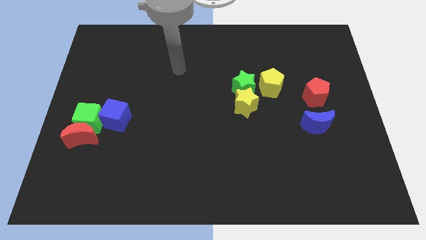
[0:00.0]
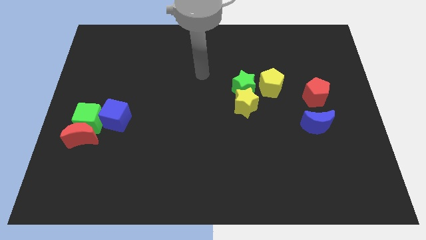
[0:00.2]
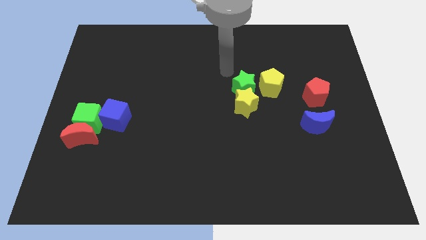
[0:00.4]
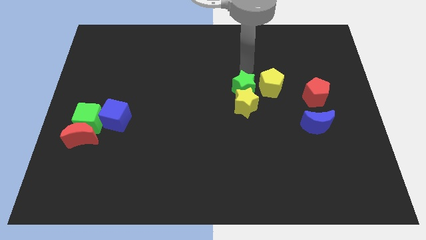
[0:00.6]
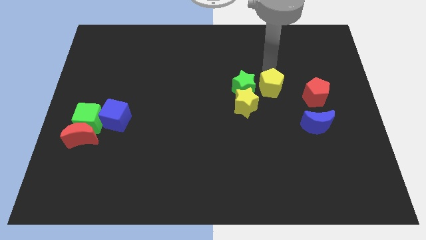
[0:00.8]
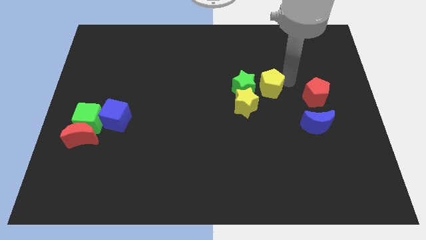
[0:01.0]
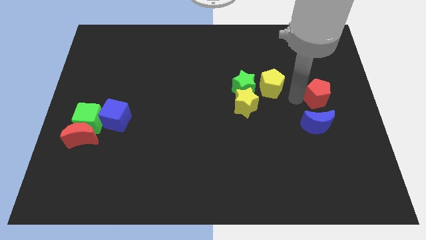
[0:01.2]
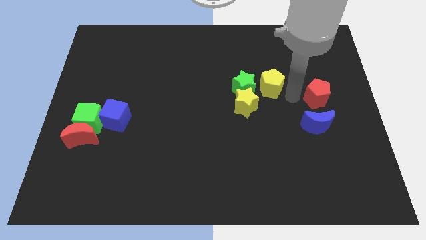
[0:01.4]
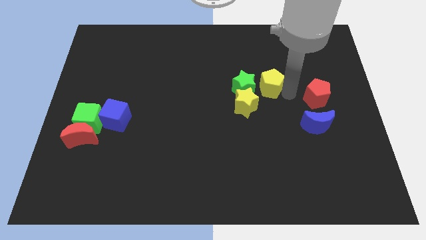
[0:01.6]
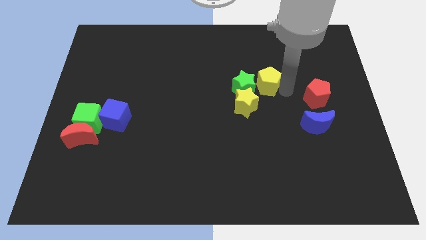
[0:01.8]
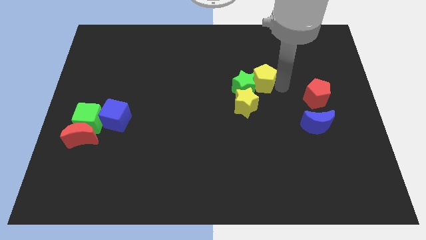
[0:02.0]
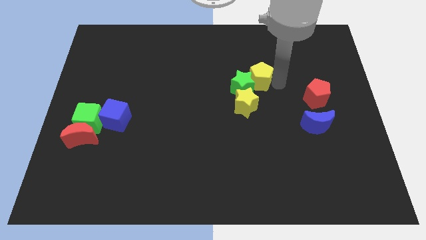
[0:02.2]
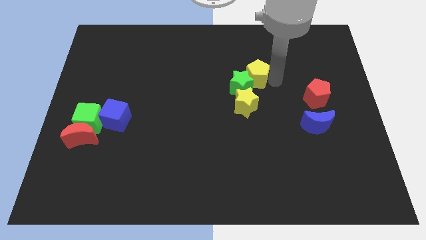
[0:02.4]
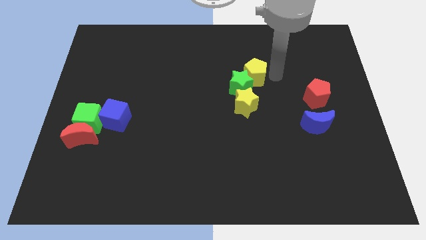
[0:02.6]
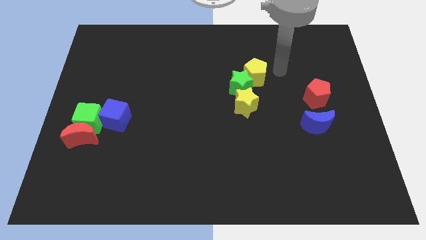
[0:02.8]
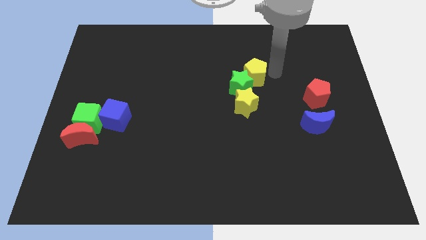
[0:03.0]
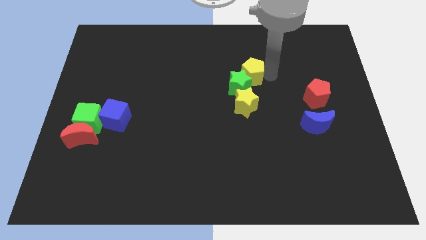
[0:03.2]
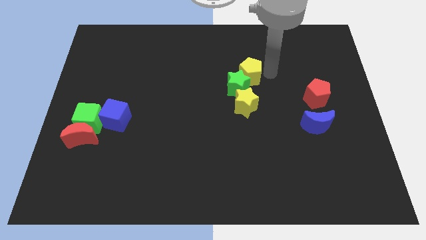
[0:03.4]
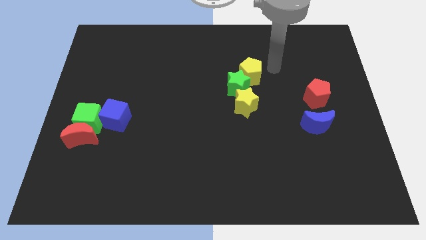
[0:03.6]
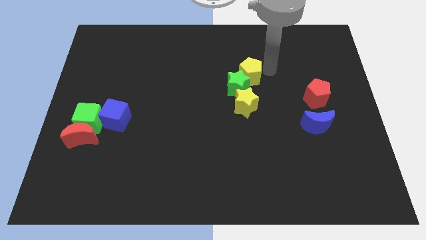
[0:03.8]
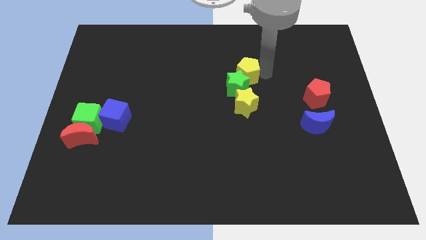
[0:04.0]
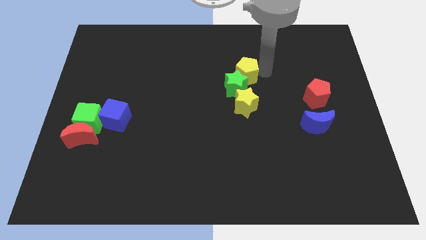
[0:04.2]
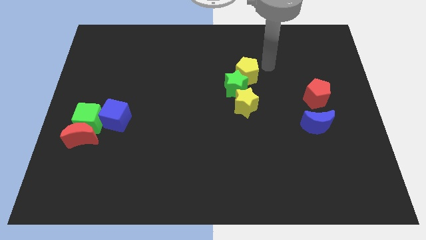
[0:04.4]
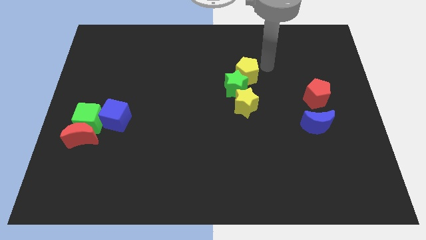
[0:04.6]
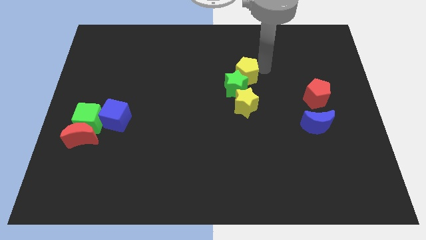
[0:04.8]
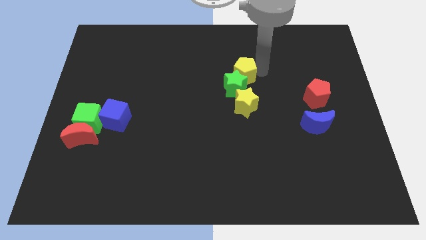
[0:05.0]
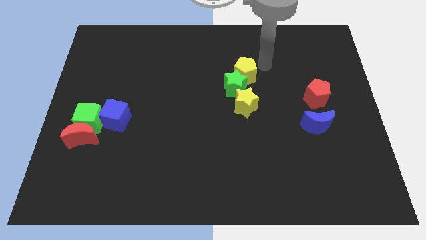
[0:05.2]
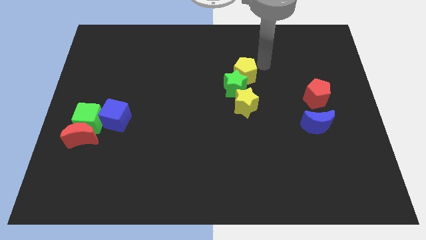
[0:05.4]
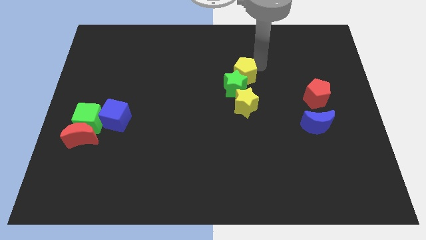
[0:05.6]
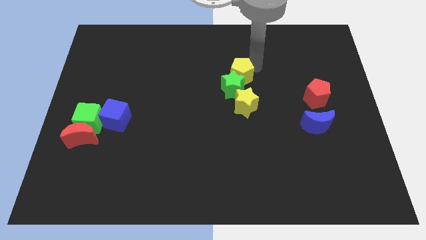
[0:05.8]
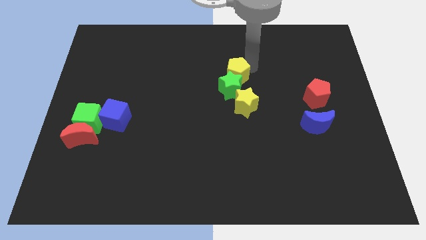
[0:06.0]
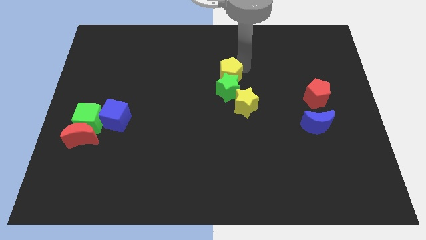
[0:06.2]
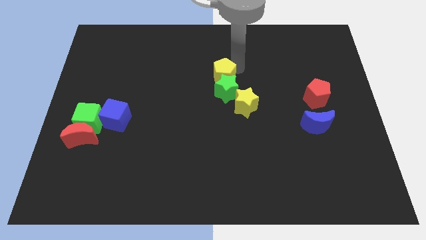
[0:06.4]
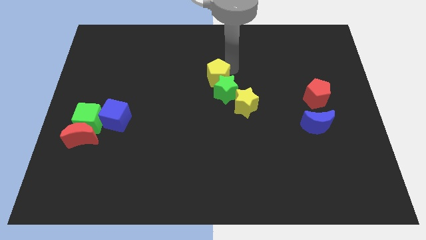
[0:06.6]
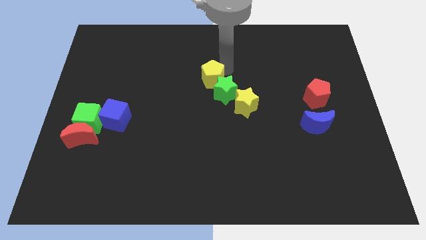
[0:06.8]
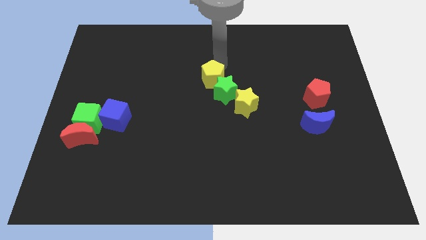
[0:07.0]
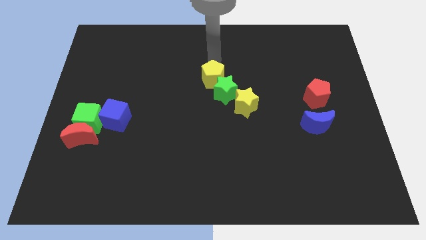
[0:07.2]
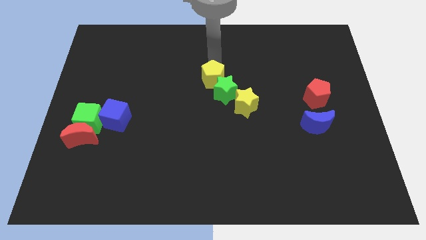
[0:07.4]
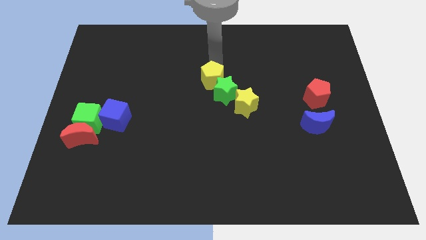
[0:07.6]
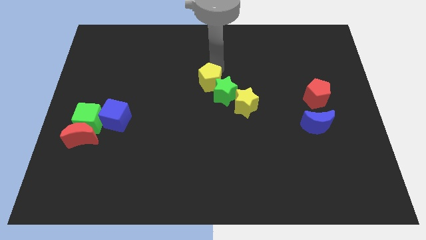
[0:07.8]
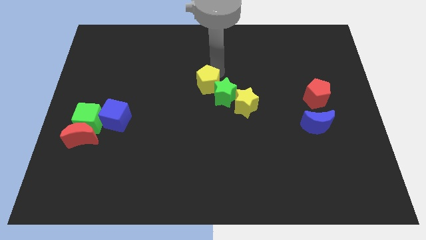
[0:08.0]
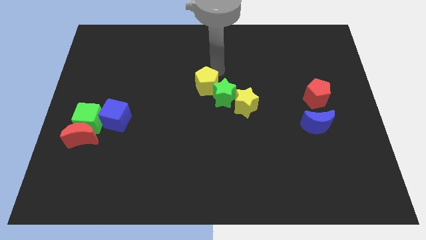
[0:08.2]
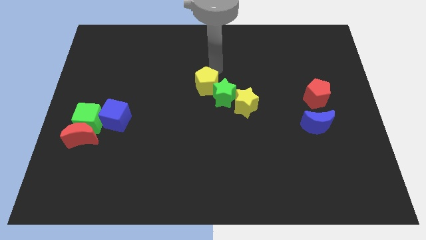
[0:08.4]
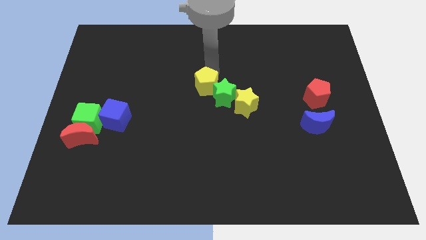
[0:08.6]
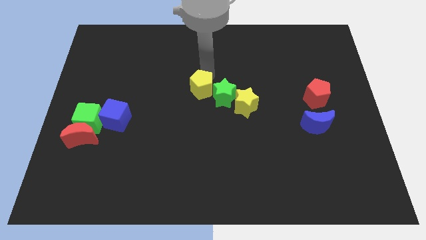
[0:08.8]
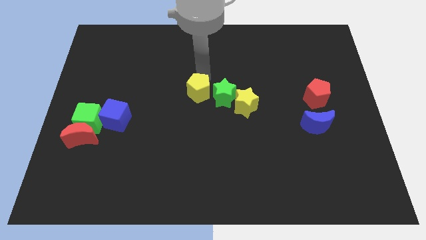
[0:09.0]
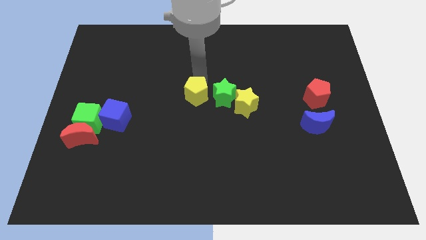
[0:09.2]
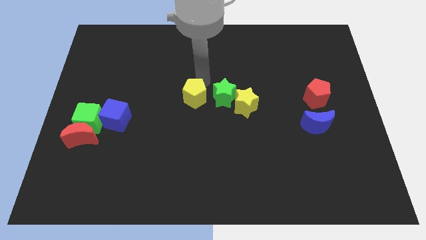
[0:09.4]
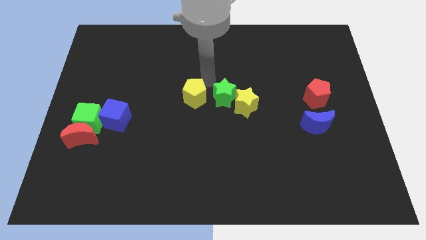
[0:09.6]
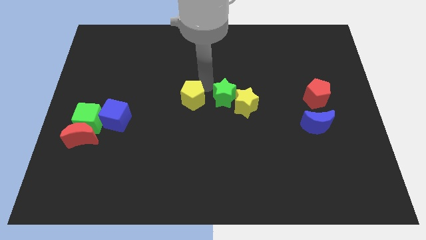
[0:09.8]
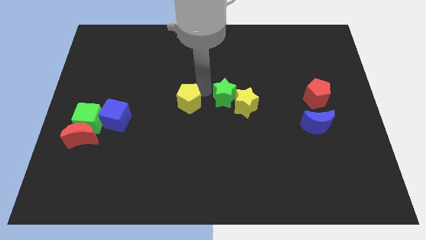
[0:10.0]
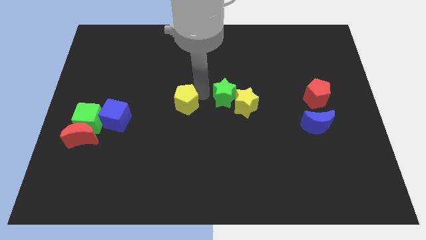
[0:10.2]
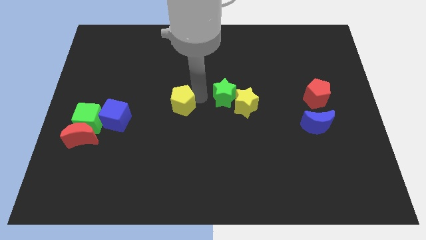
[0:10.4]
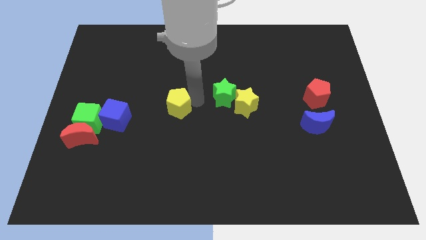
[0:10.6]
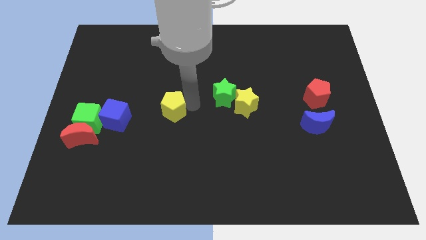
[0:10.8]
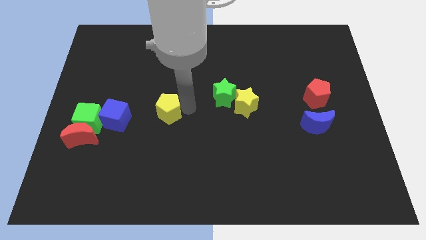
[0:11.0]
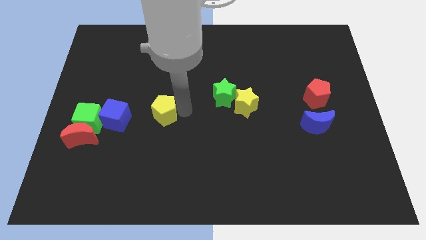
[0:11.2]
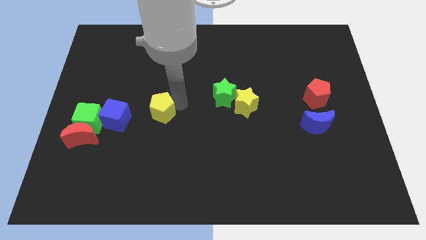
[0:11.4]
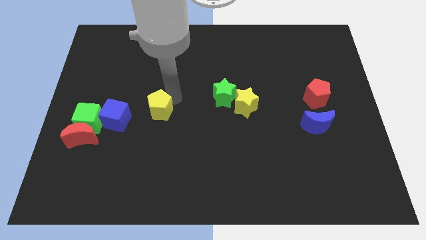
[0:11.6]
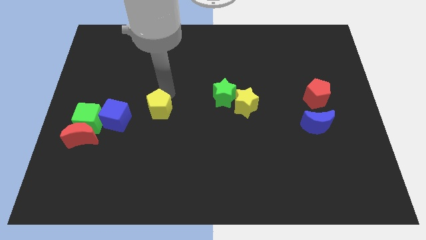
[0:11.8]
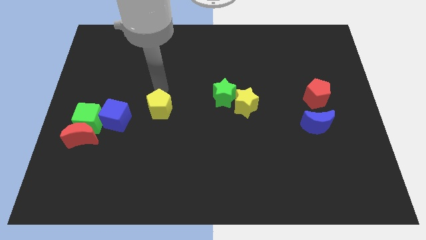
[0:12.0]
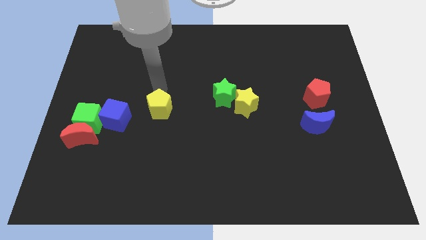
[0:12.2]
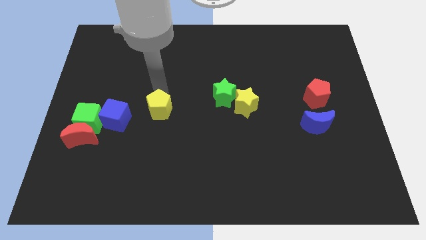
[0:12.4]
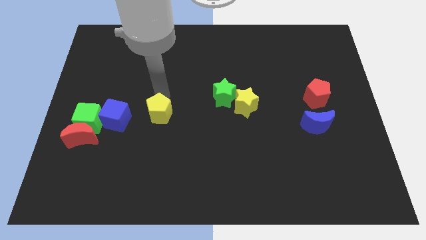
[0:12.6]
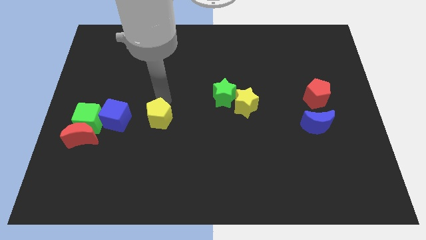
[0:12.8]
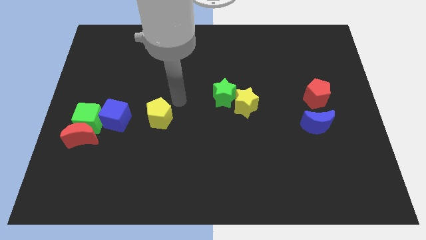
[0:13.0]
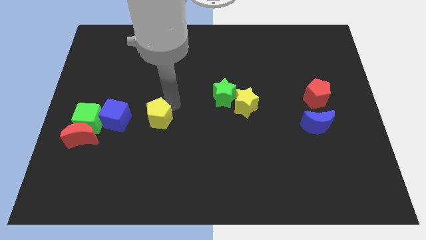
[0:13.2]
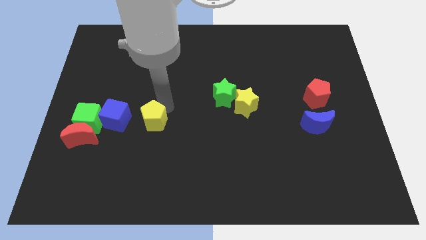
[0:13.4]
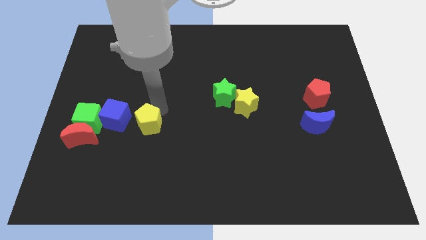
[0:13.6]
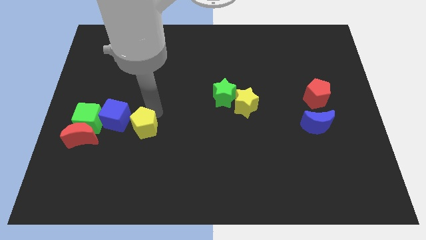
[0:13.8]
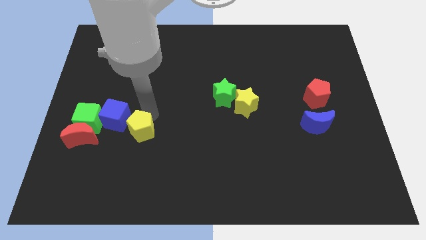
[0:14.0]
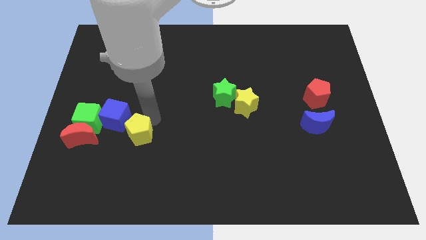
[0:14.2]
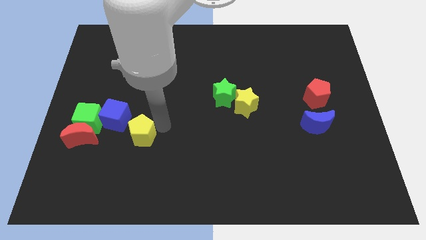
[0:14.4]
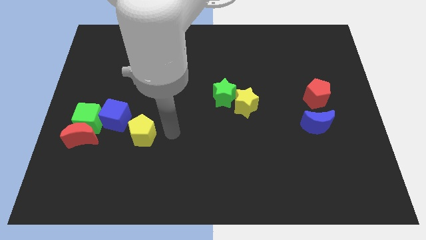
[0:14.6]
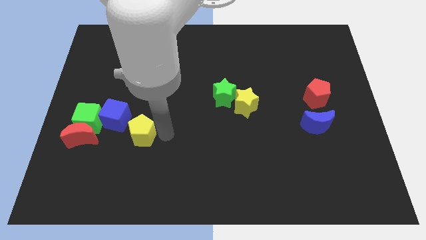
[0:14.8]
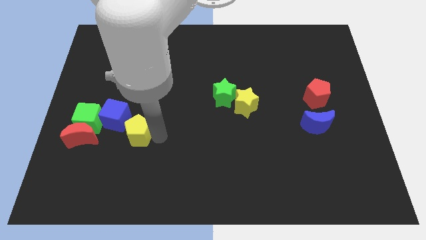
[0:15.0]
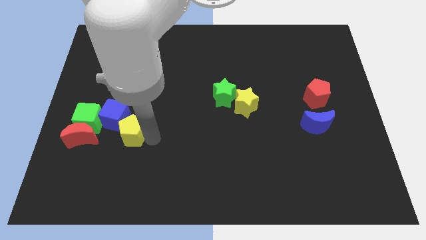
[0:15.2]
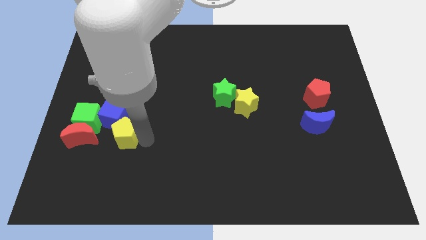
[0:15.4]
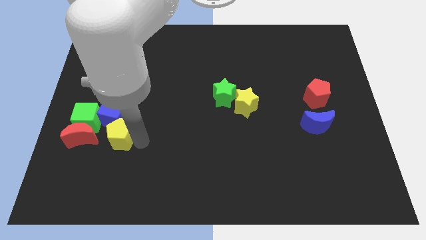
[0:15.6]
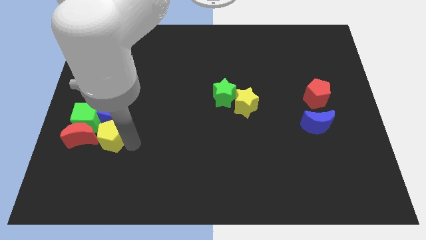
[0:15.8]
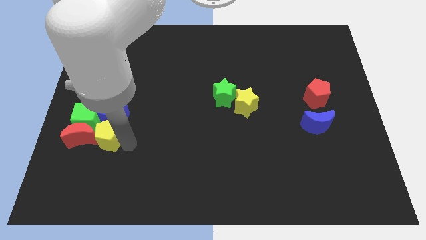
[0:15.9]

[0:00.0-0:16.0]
push the yellow pentagon to the red moon

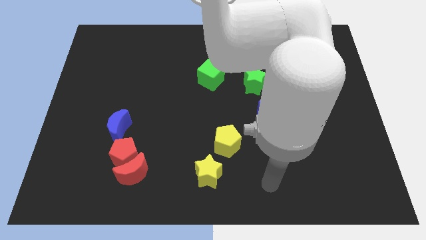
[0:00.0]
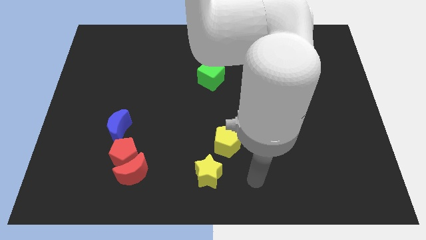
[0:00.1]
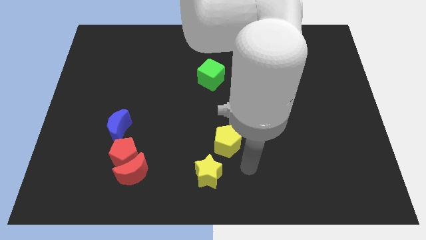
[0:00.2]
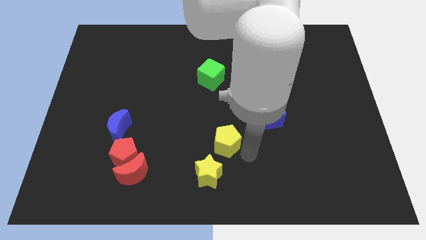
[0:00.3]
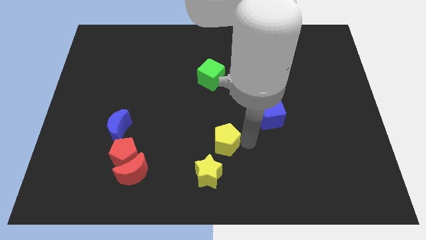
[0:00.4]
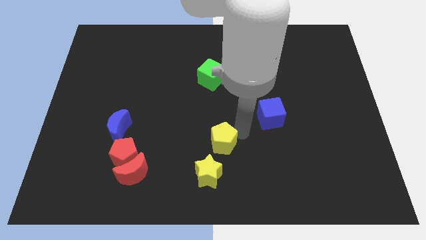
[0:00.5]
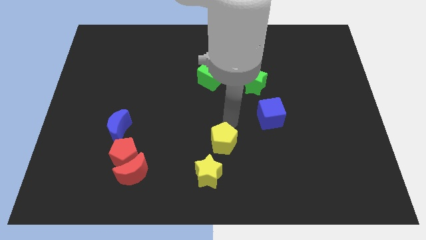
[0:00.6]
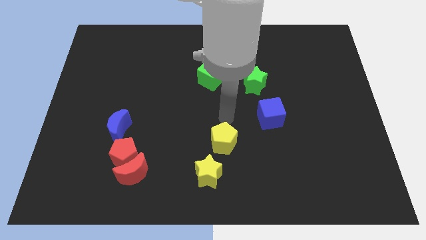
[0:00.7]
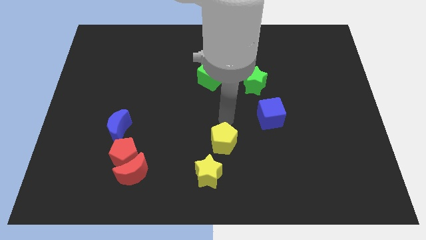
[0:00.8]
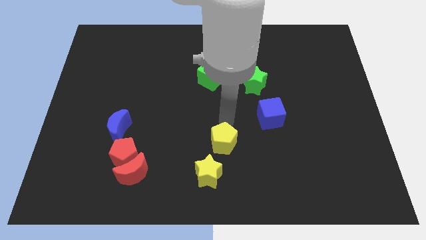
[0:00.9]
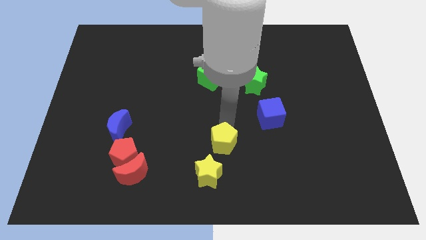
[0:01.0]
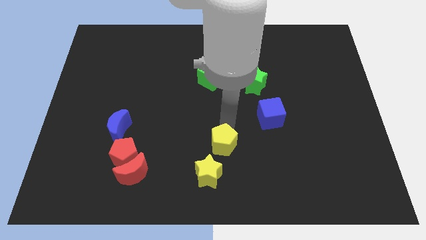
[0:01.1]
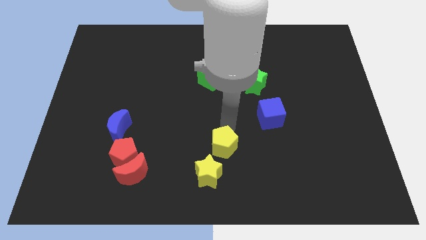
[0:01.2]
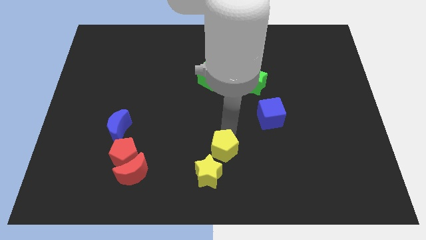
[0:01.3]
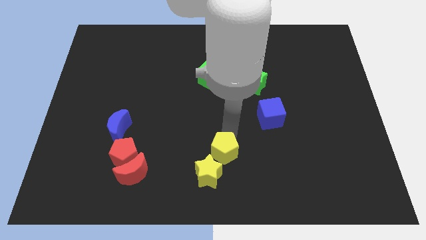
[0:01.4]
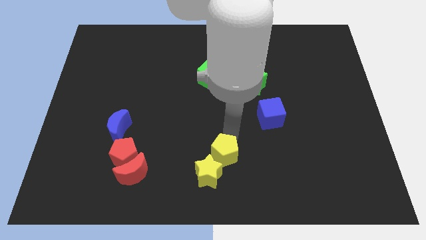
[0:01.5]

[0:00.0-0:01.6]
move the yellow pentagon to the yellow star
